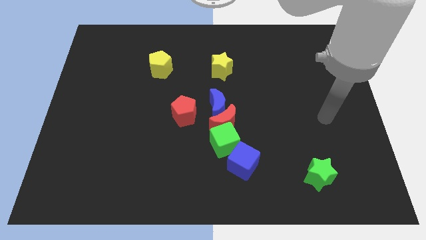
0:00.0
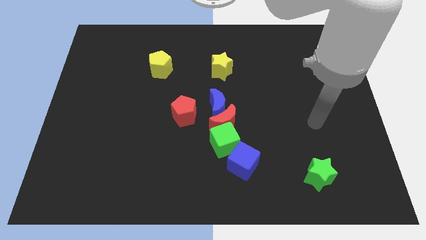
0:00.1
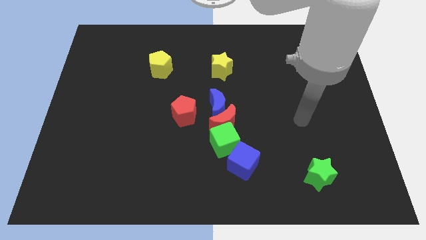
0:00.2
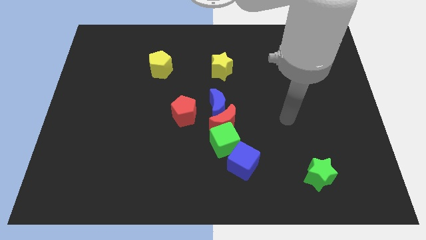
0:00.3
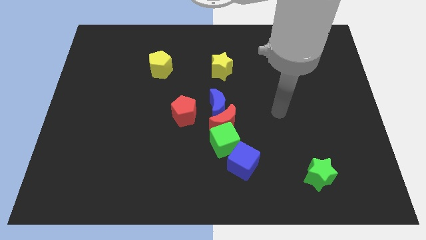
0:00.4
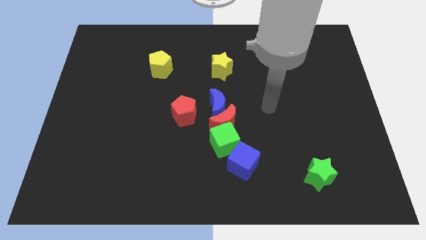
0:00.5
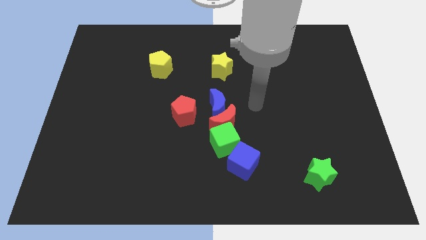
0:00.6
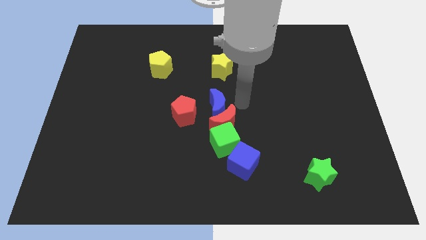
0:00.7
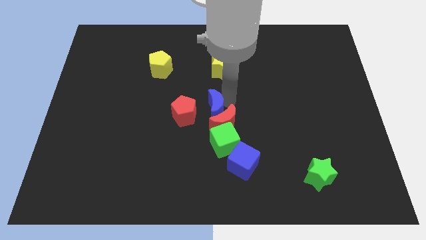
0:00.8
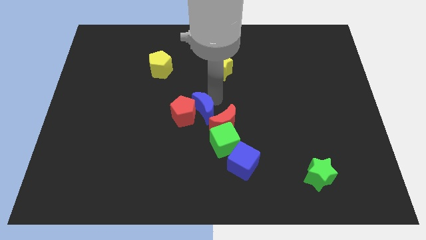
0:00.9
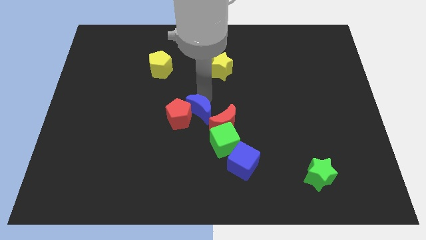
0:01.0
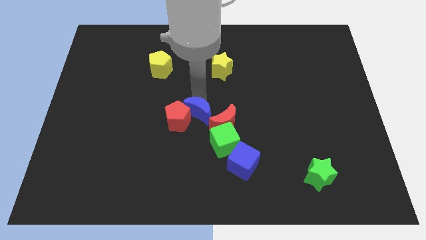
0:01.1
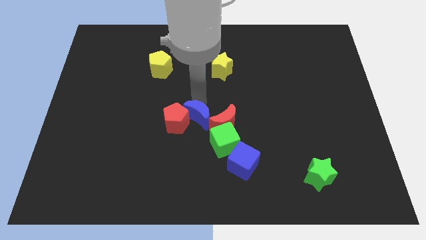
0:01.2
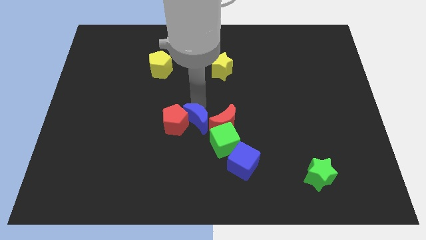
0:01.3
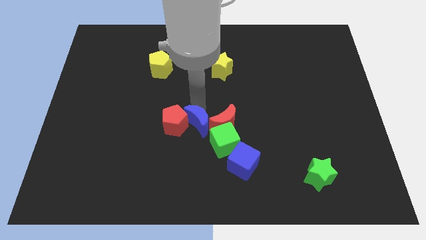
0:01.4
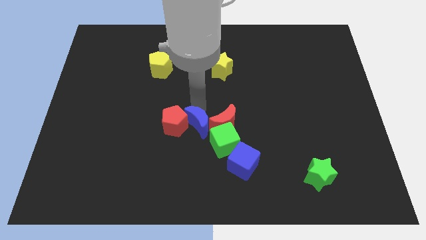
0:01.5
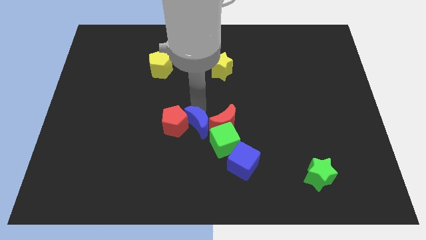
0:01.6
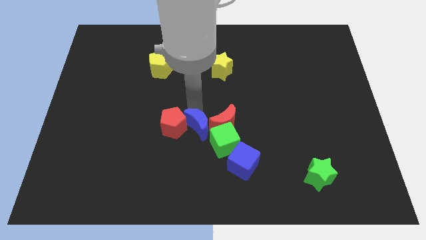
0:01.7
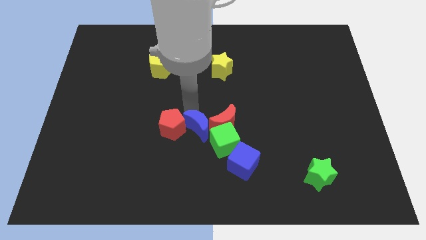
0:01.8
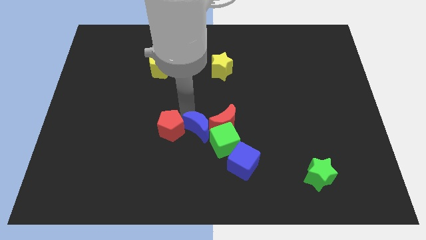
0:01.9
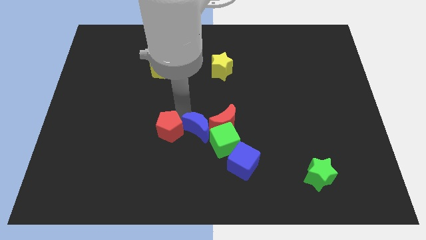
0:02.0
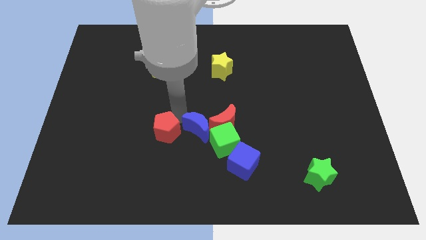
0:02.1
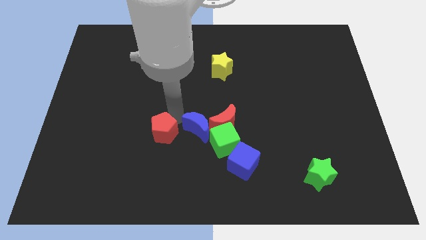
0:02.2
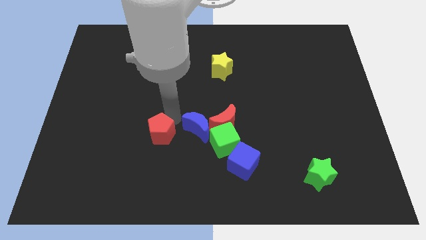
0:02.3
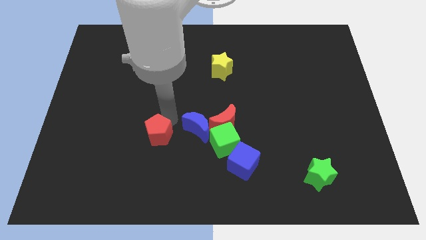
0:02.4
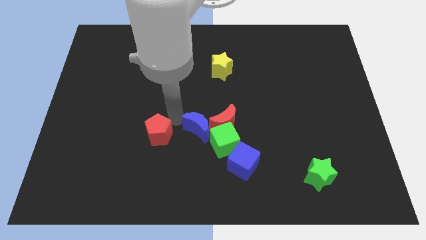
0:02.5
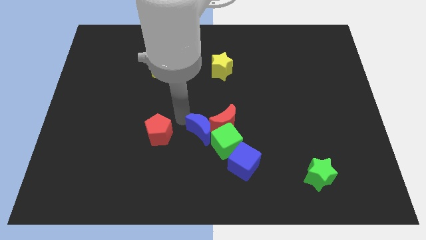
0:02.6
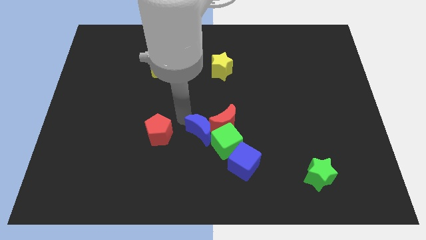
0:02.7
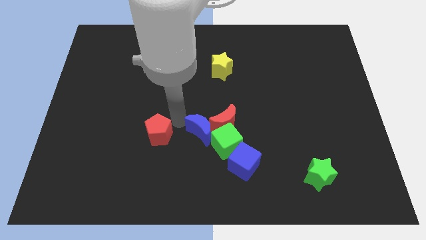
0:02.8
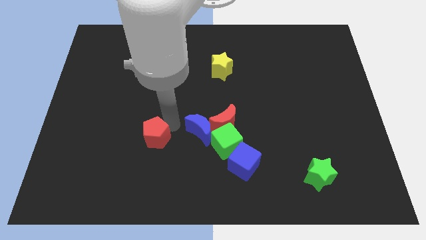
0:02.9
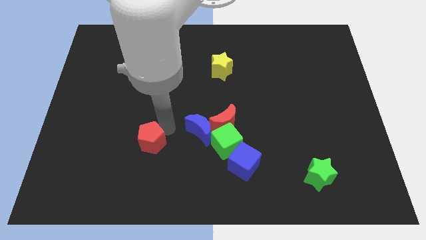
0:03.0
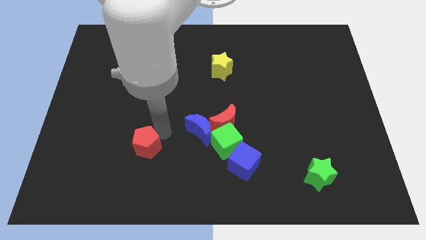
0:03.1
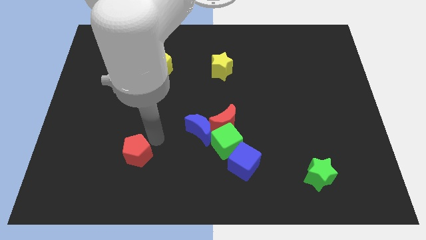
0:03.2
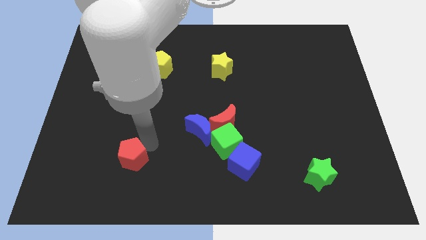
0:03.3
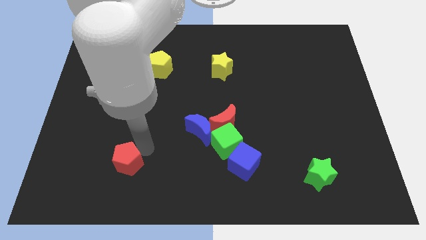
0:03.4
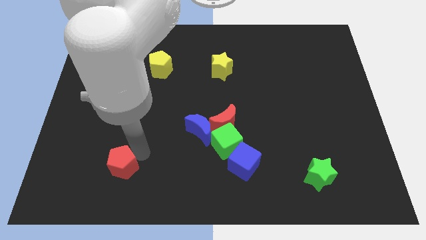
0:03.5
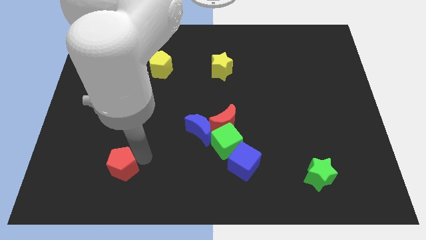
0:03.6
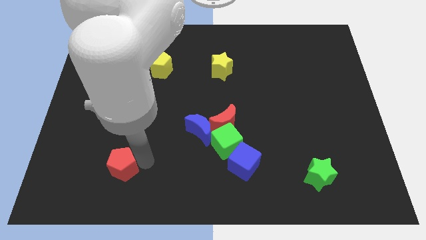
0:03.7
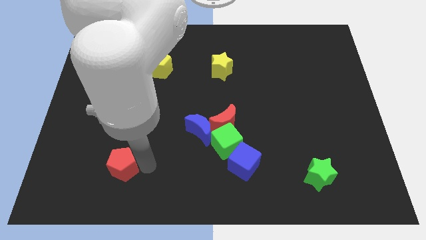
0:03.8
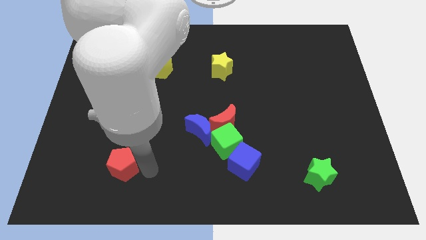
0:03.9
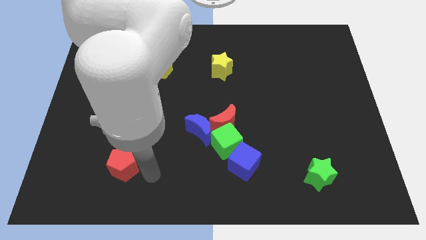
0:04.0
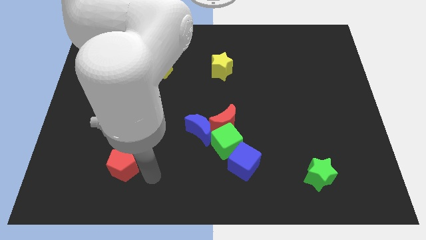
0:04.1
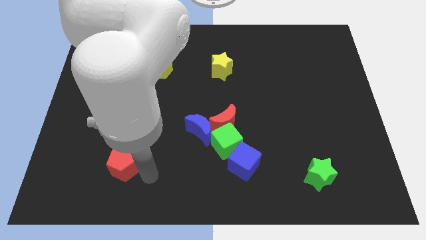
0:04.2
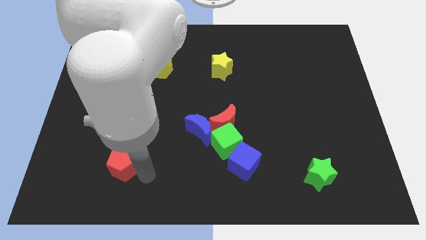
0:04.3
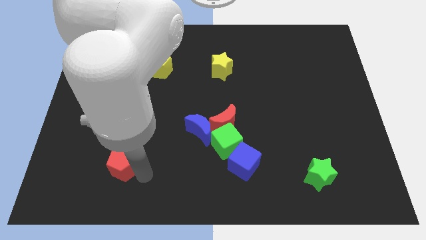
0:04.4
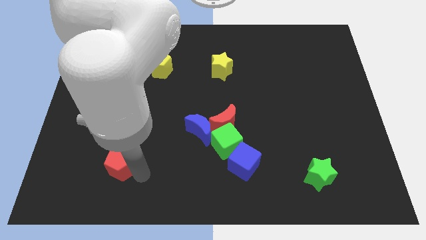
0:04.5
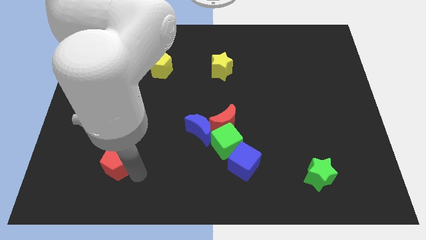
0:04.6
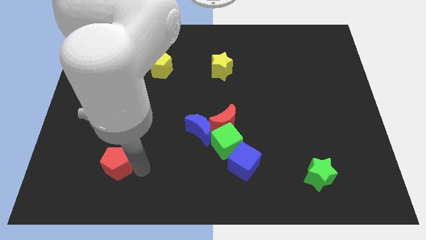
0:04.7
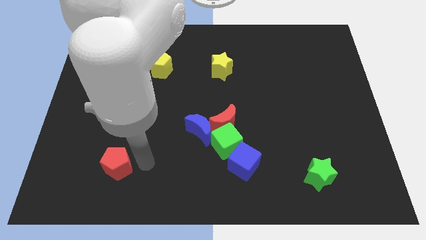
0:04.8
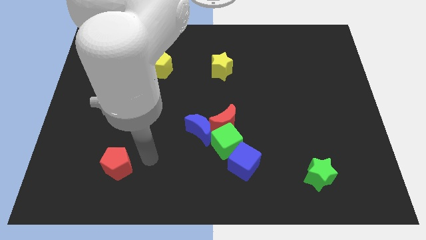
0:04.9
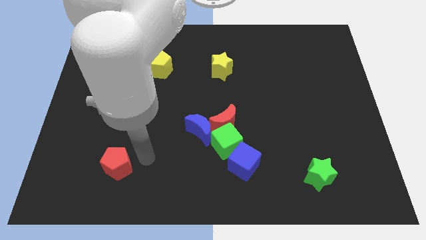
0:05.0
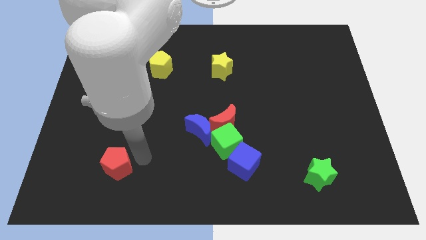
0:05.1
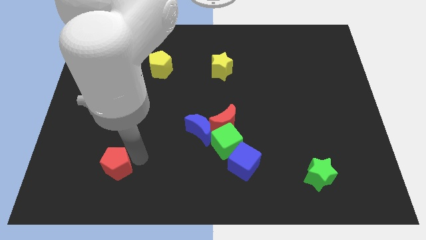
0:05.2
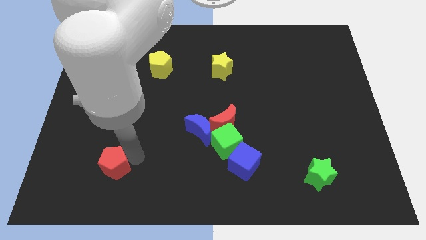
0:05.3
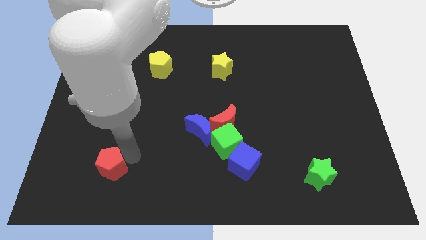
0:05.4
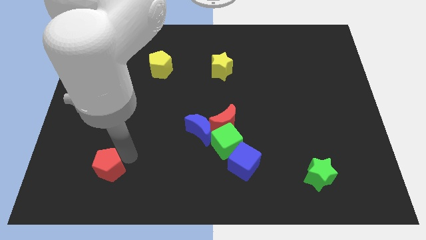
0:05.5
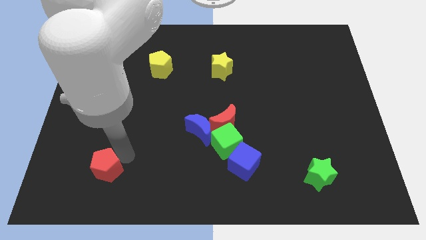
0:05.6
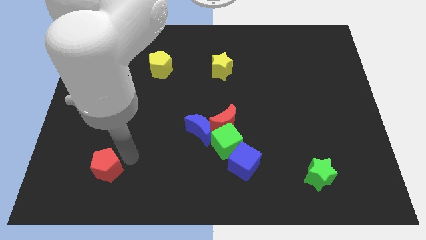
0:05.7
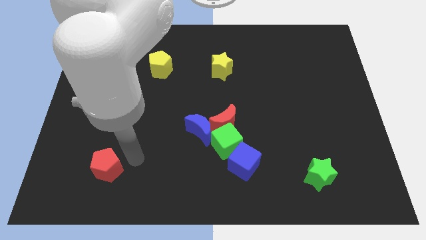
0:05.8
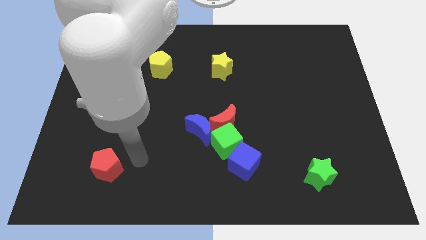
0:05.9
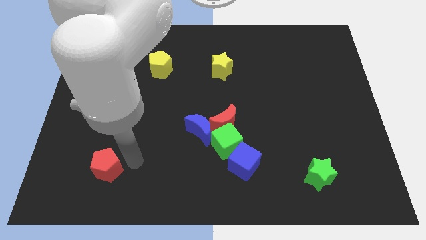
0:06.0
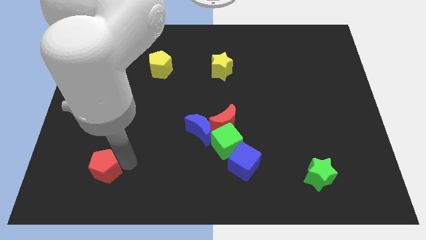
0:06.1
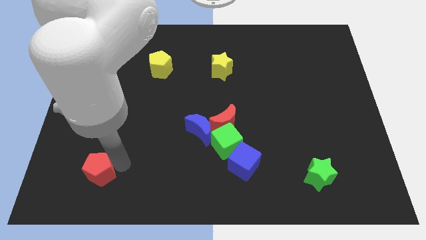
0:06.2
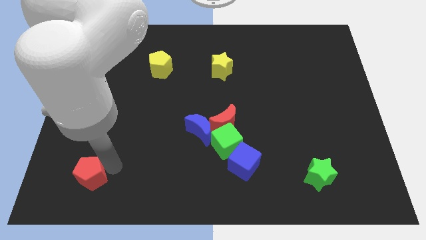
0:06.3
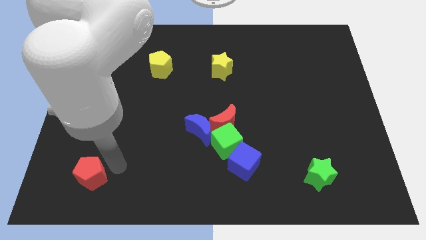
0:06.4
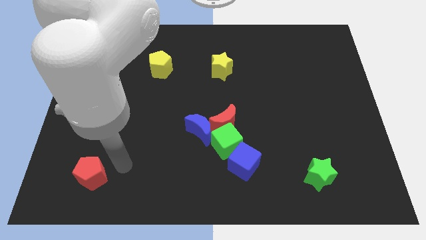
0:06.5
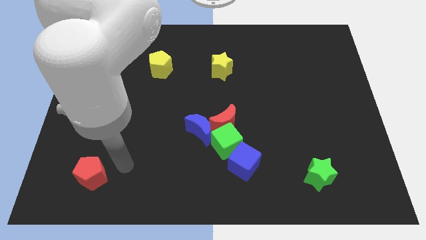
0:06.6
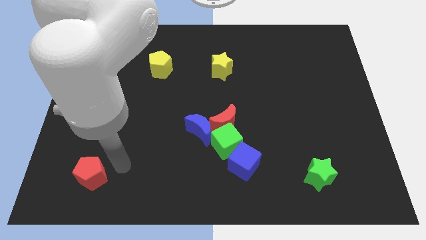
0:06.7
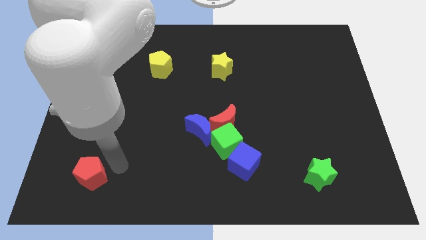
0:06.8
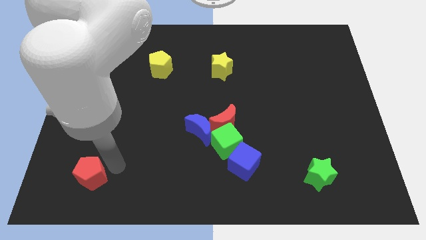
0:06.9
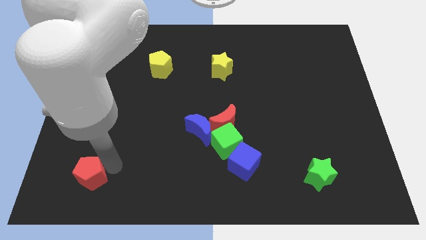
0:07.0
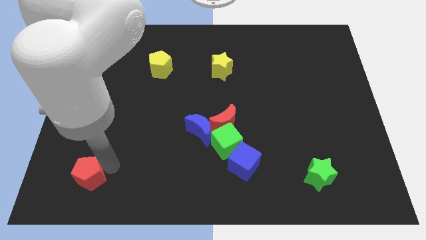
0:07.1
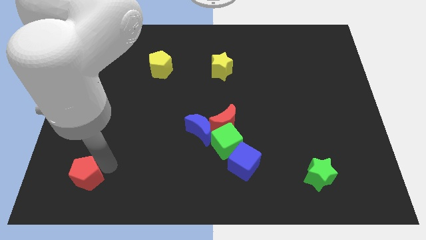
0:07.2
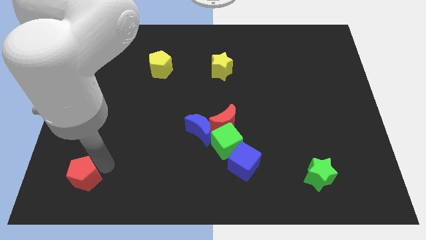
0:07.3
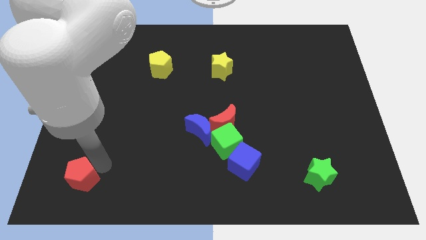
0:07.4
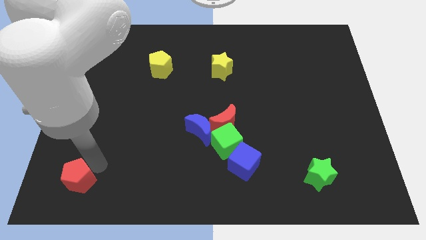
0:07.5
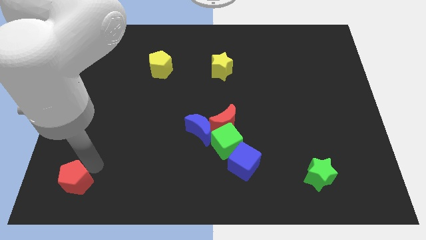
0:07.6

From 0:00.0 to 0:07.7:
move the red pentagon to the bottom left of the board
